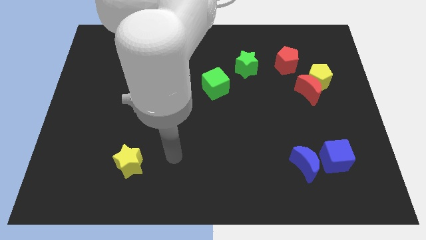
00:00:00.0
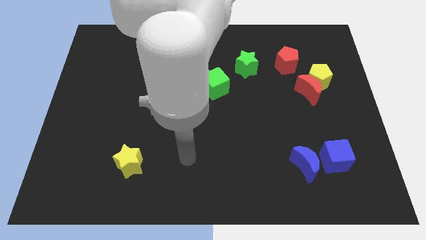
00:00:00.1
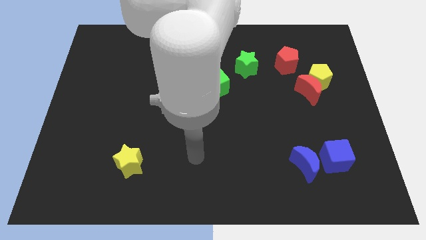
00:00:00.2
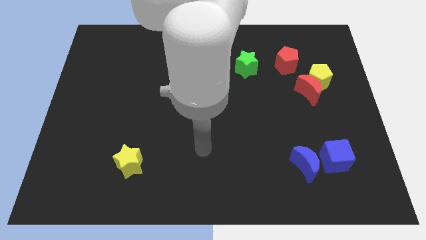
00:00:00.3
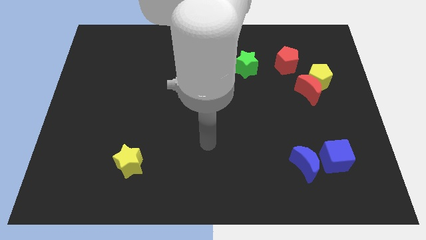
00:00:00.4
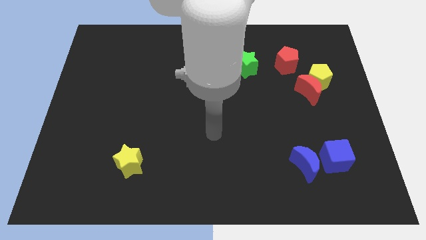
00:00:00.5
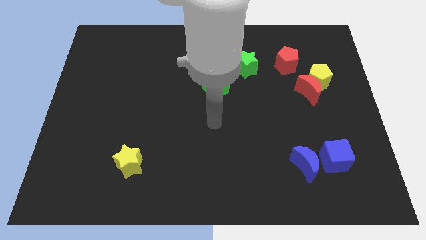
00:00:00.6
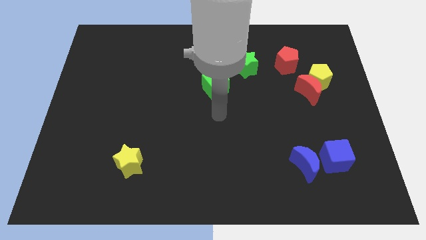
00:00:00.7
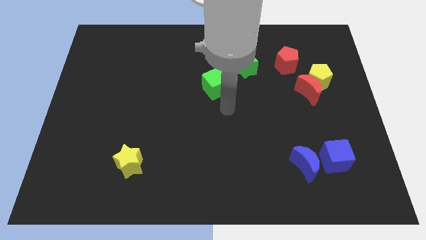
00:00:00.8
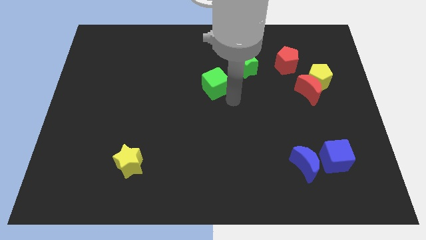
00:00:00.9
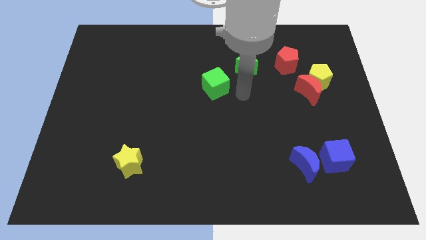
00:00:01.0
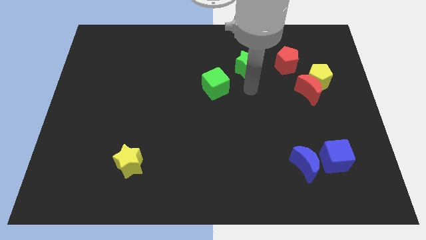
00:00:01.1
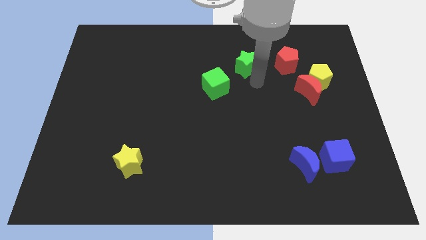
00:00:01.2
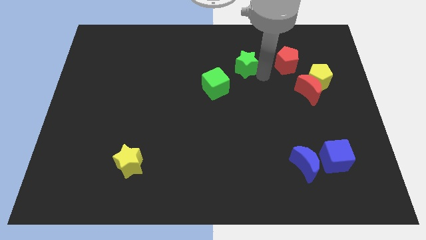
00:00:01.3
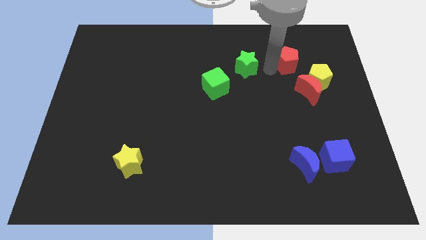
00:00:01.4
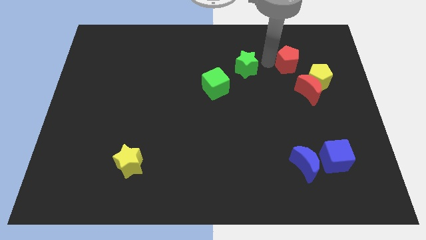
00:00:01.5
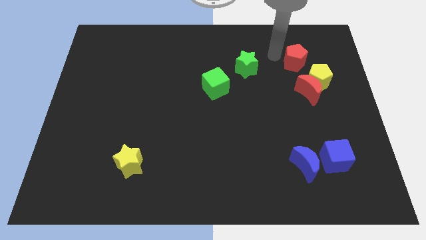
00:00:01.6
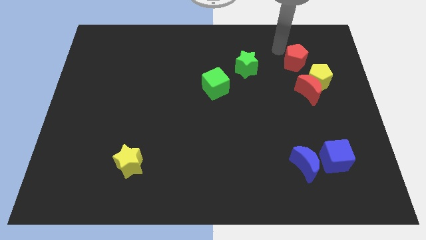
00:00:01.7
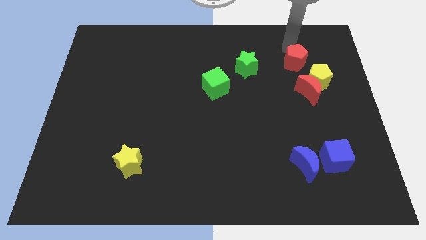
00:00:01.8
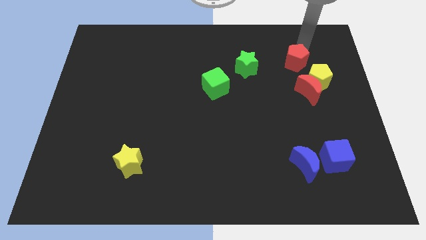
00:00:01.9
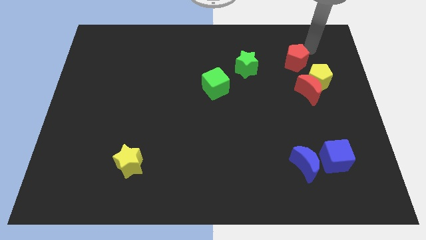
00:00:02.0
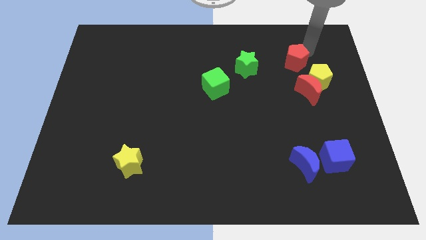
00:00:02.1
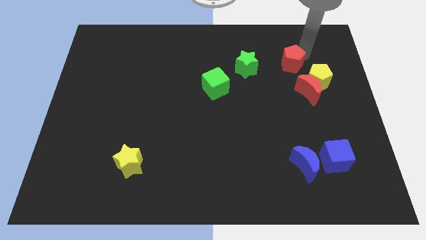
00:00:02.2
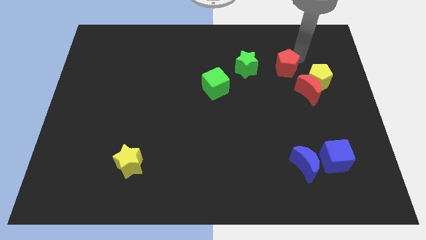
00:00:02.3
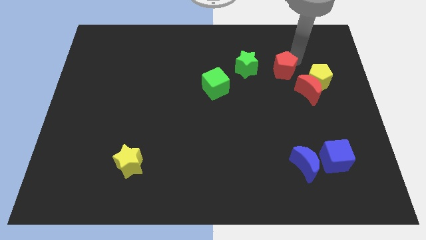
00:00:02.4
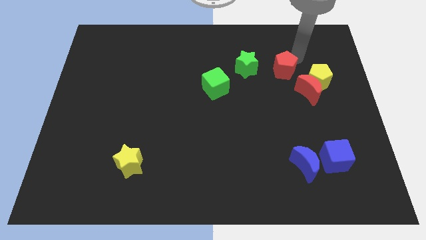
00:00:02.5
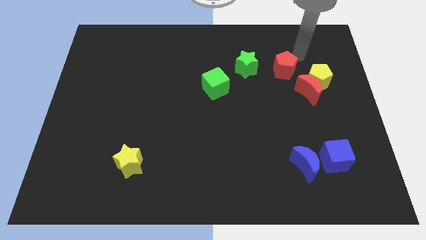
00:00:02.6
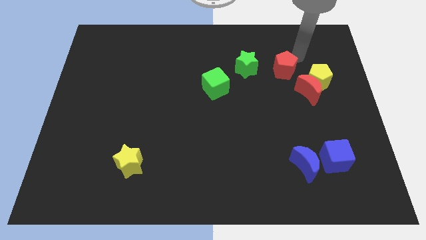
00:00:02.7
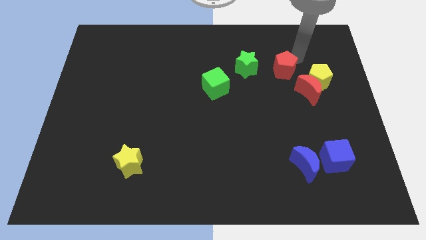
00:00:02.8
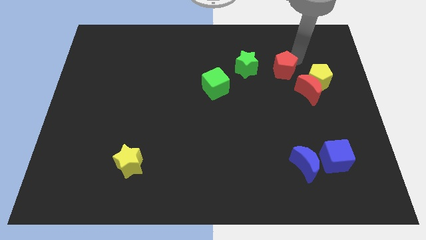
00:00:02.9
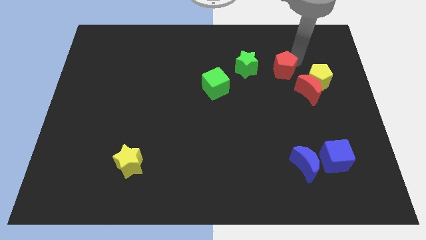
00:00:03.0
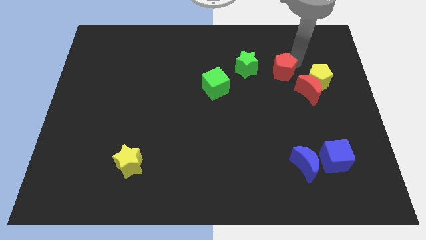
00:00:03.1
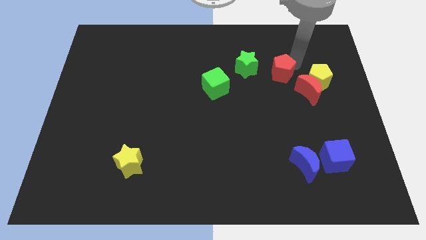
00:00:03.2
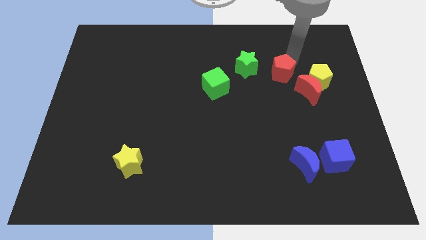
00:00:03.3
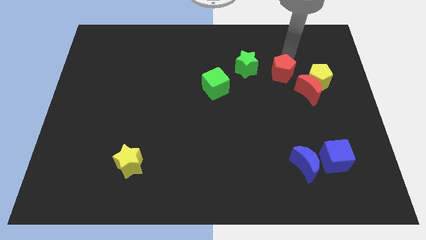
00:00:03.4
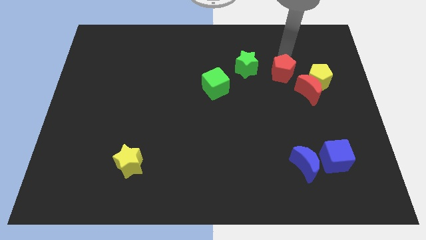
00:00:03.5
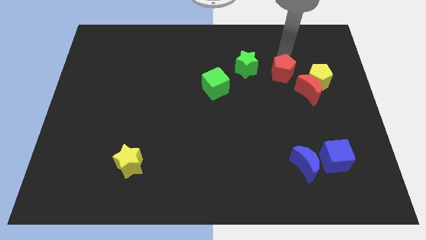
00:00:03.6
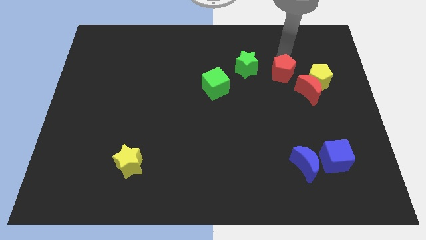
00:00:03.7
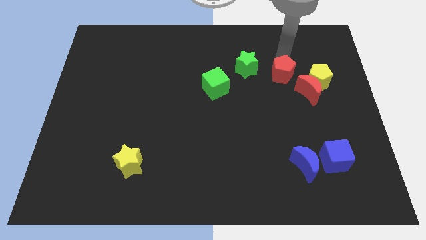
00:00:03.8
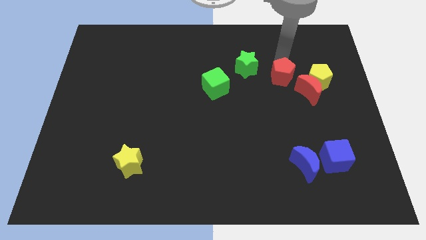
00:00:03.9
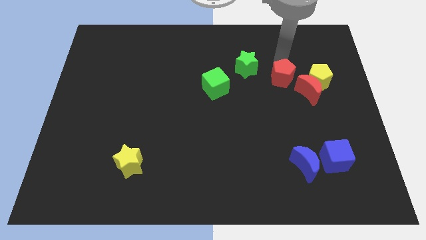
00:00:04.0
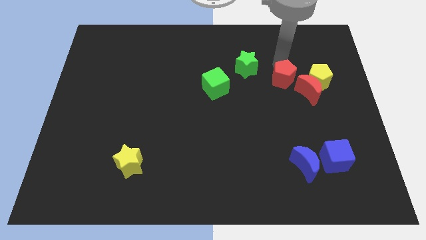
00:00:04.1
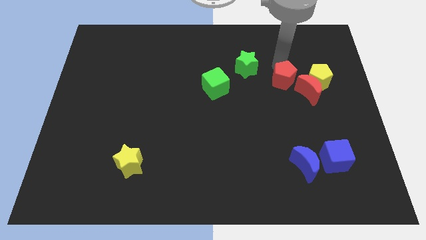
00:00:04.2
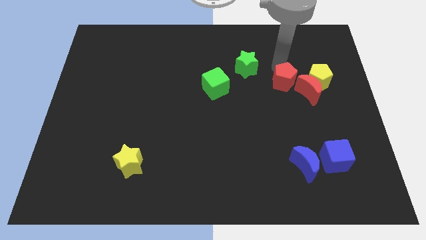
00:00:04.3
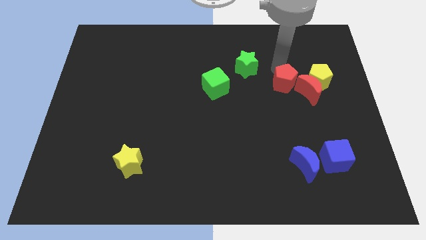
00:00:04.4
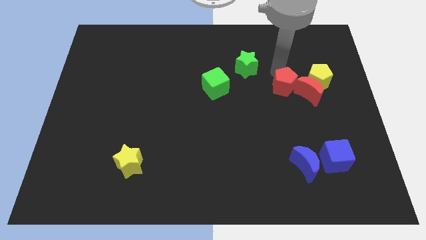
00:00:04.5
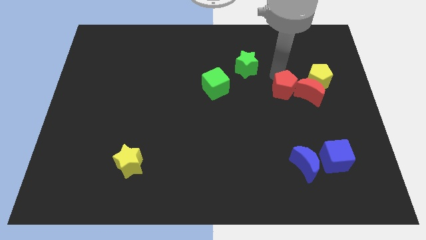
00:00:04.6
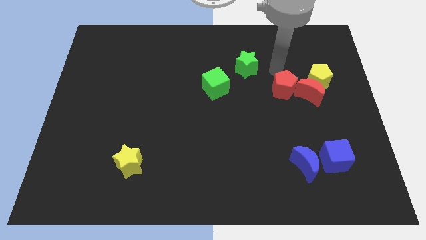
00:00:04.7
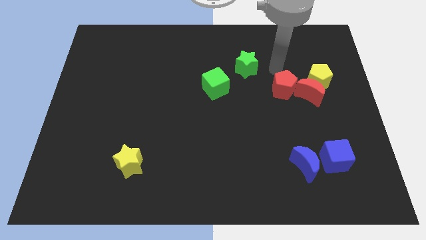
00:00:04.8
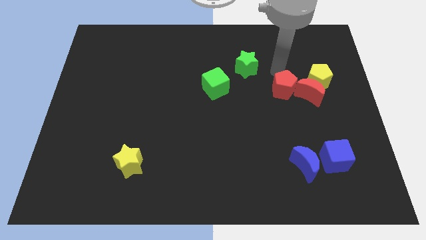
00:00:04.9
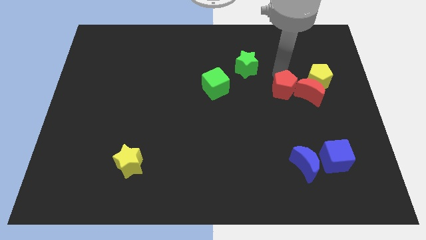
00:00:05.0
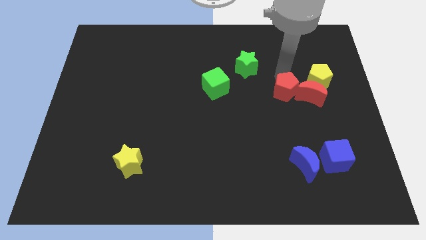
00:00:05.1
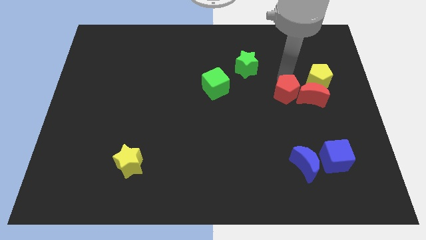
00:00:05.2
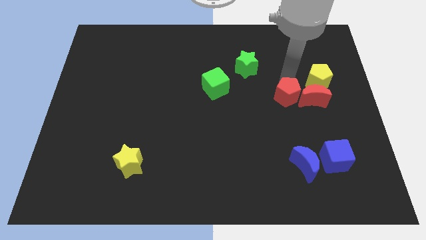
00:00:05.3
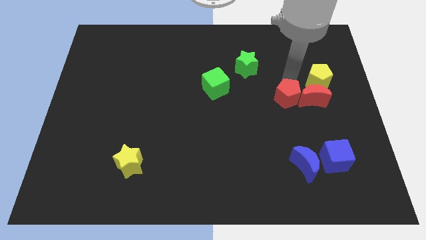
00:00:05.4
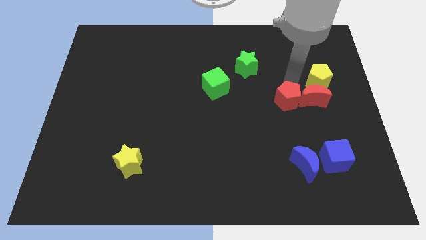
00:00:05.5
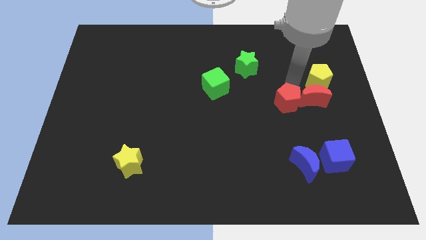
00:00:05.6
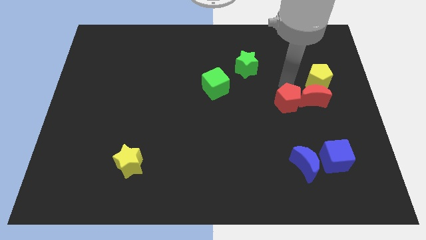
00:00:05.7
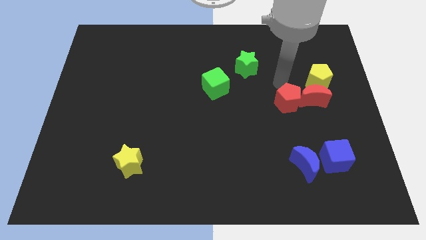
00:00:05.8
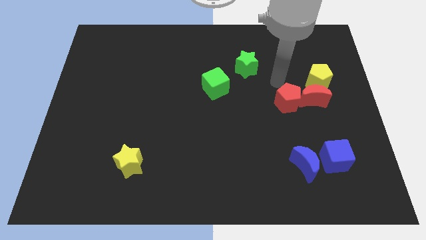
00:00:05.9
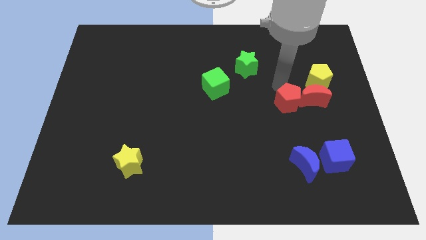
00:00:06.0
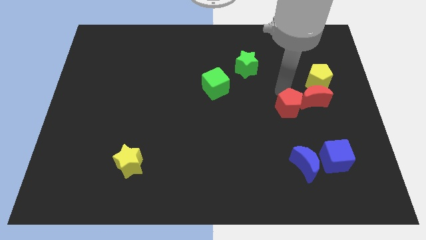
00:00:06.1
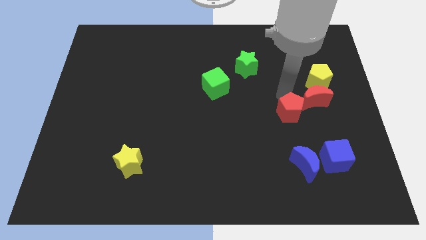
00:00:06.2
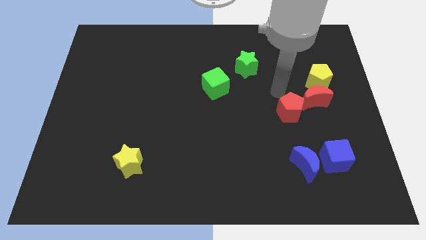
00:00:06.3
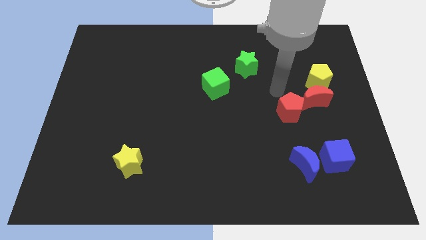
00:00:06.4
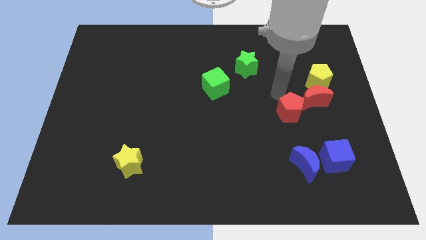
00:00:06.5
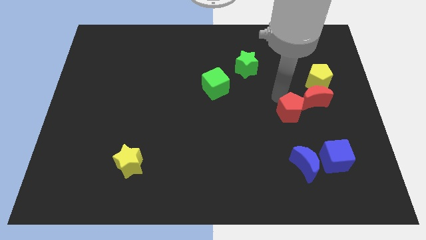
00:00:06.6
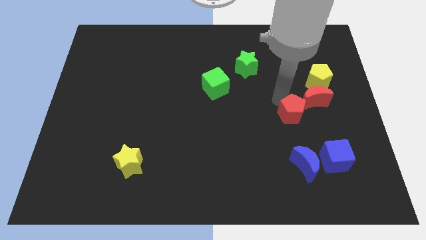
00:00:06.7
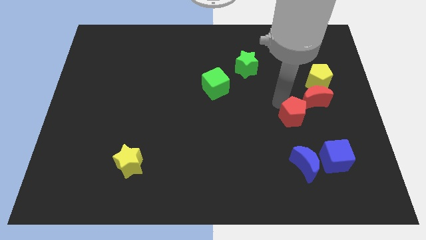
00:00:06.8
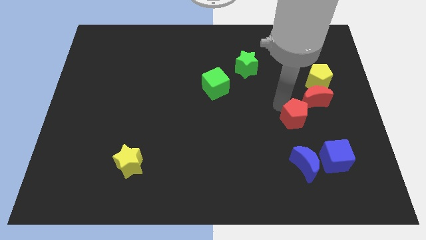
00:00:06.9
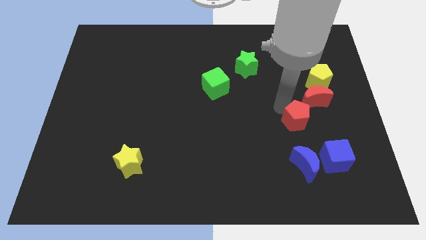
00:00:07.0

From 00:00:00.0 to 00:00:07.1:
move the red pentagon to the top left side of the blue cube

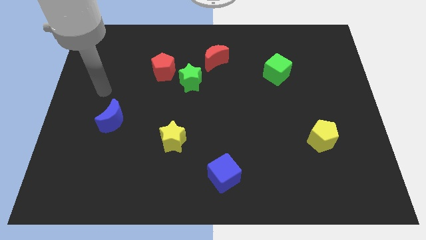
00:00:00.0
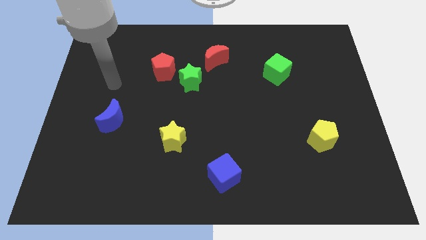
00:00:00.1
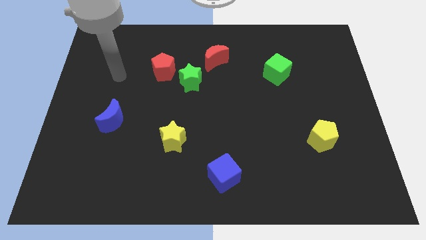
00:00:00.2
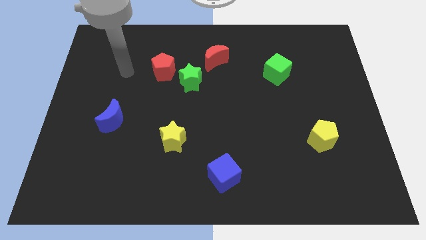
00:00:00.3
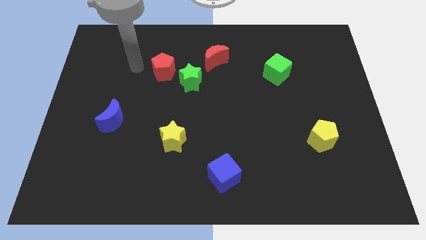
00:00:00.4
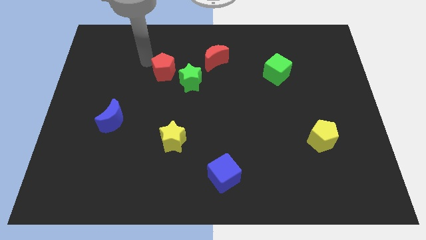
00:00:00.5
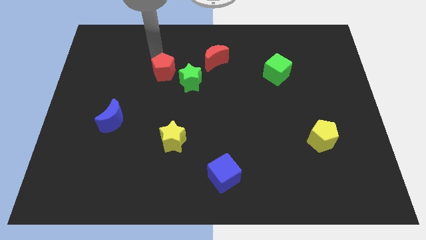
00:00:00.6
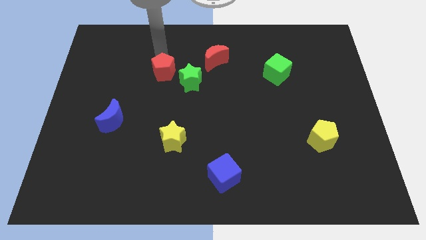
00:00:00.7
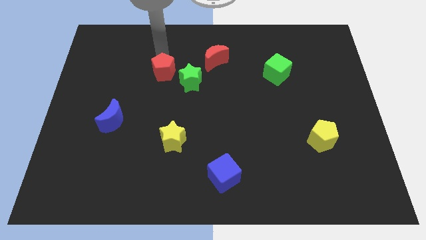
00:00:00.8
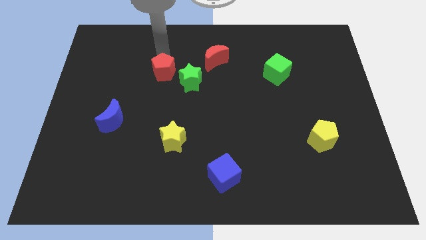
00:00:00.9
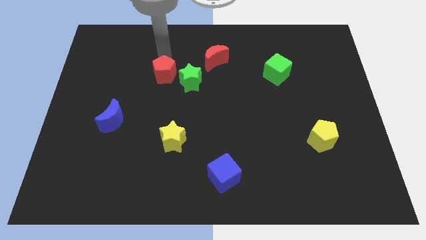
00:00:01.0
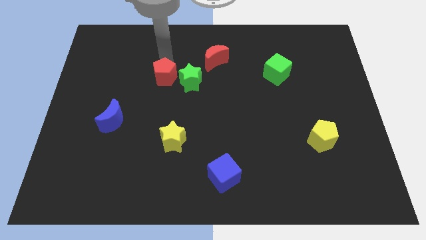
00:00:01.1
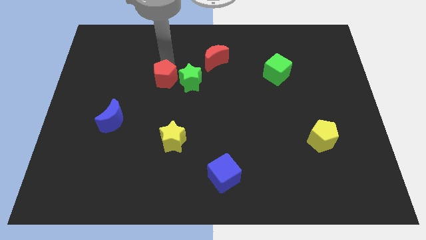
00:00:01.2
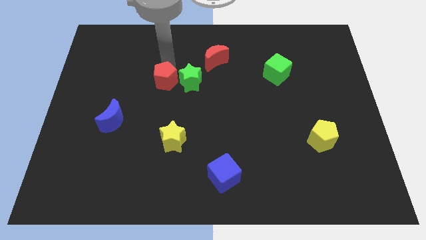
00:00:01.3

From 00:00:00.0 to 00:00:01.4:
slide the red pentagon diagonally down and to the left of the green star
